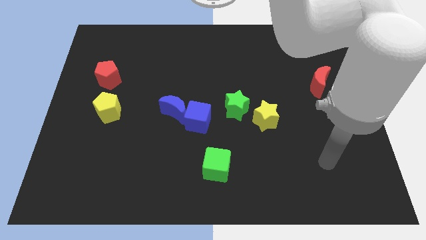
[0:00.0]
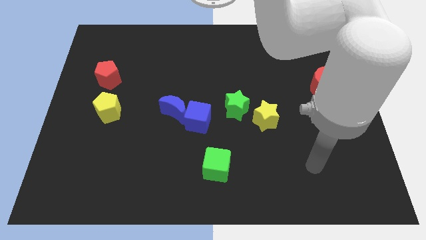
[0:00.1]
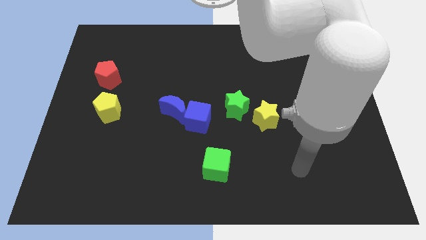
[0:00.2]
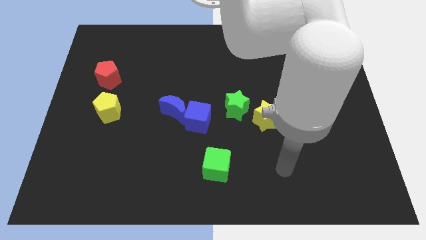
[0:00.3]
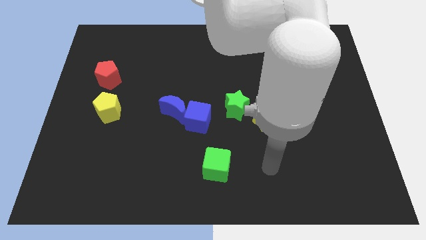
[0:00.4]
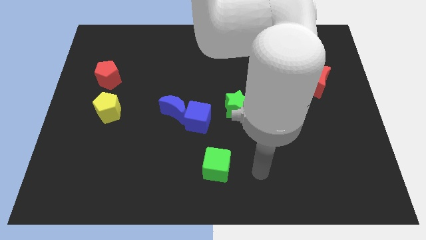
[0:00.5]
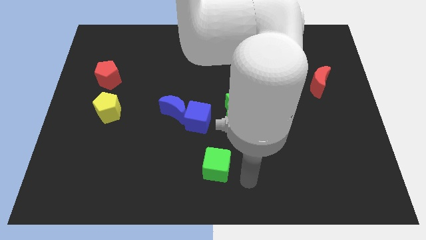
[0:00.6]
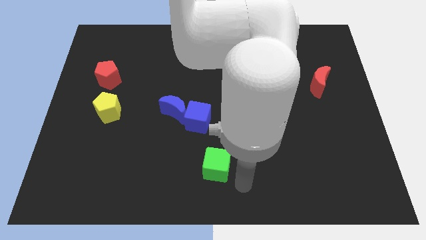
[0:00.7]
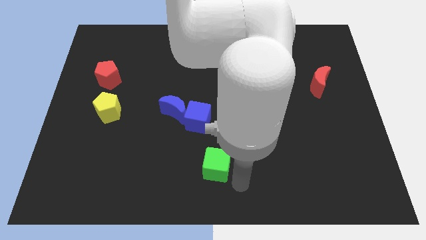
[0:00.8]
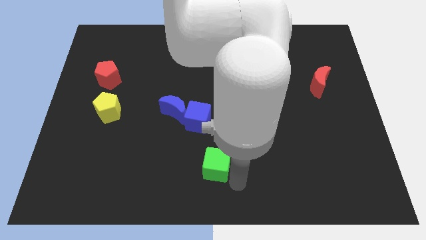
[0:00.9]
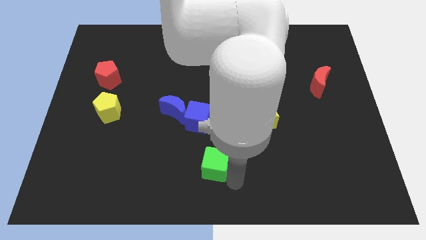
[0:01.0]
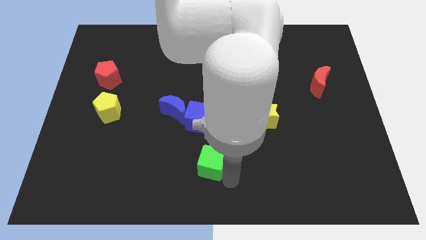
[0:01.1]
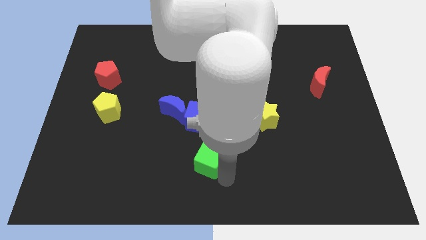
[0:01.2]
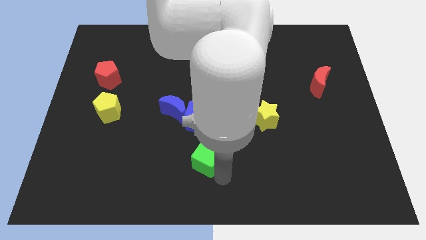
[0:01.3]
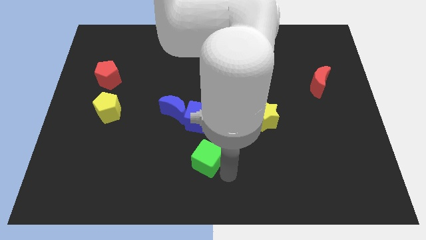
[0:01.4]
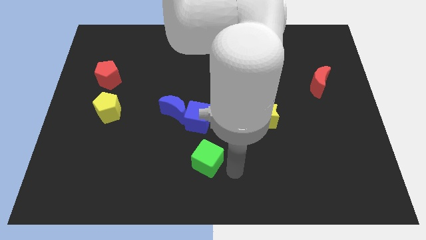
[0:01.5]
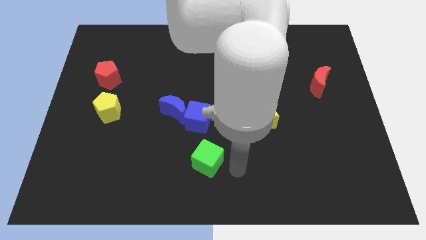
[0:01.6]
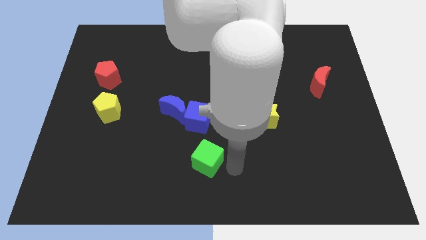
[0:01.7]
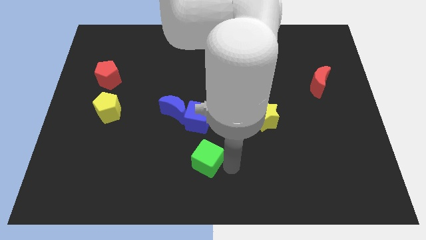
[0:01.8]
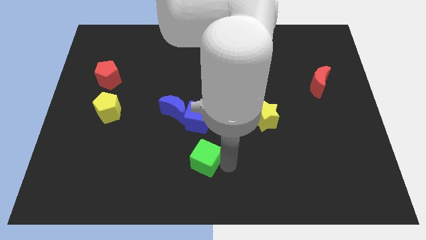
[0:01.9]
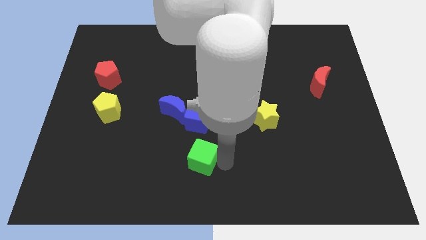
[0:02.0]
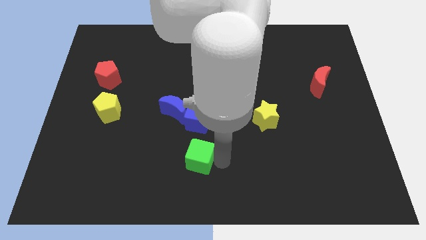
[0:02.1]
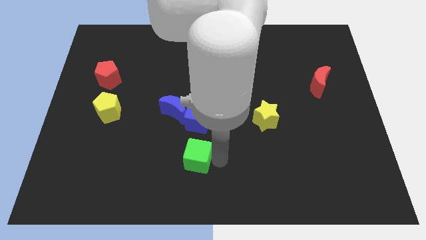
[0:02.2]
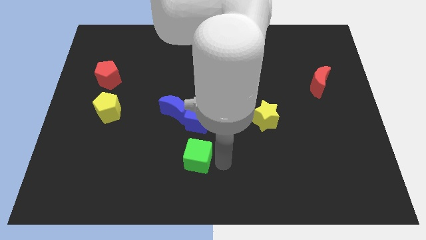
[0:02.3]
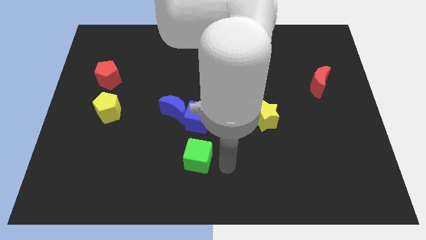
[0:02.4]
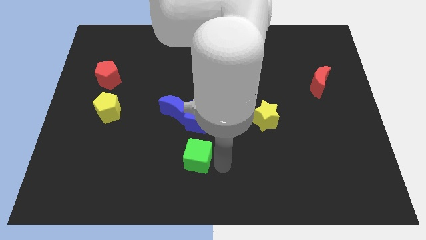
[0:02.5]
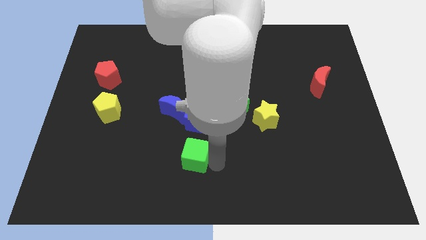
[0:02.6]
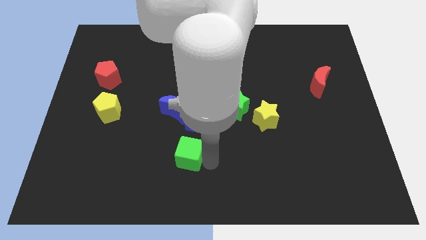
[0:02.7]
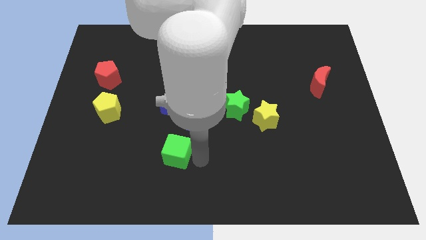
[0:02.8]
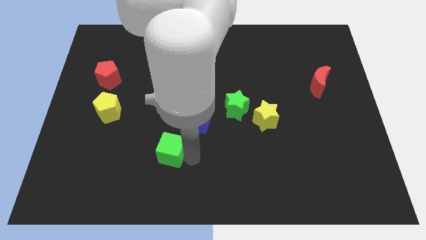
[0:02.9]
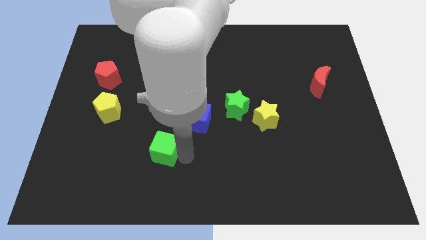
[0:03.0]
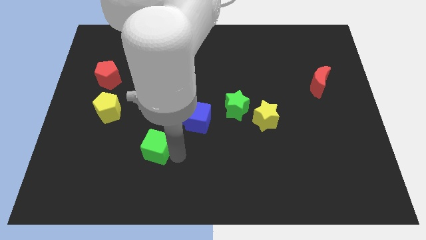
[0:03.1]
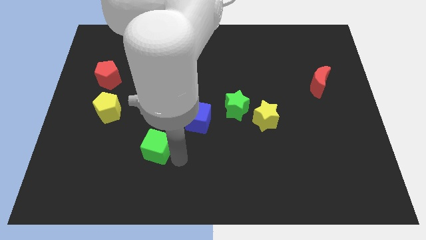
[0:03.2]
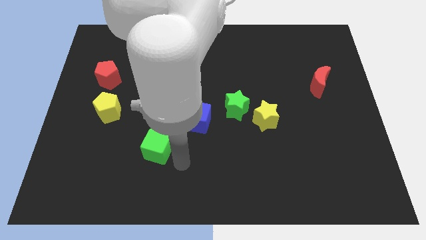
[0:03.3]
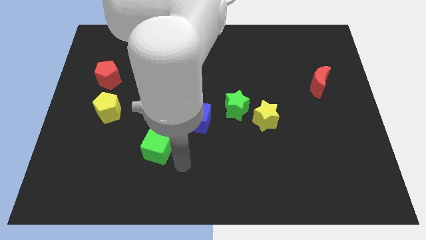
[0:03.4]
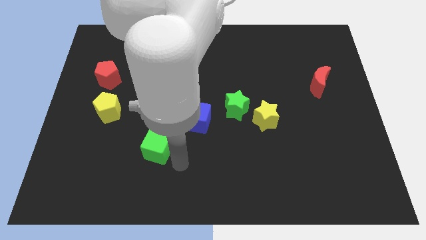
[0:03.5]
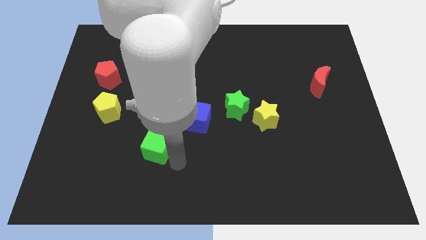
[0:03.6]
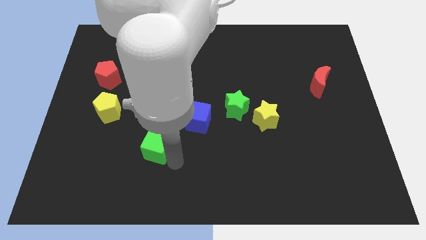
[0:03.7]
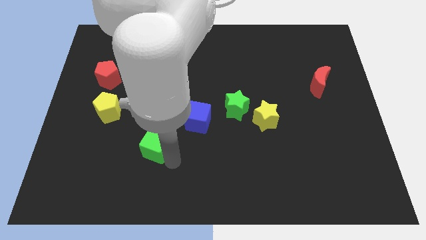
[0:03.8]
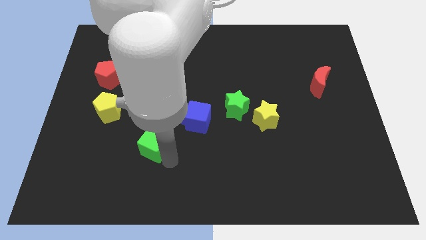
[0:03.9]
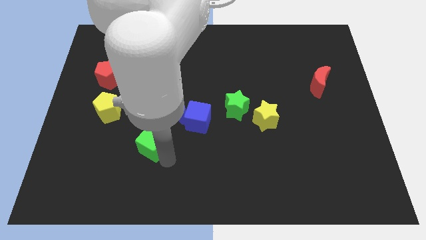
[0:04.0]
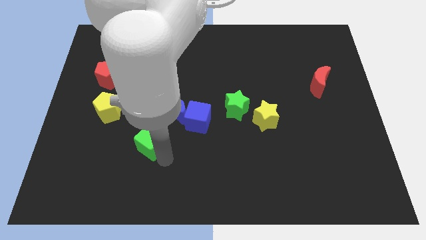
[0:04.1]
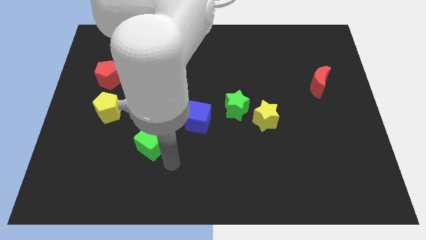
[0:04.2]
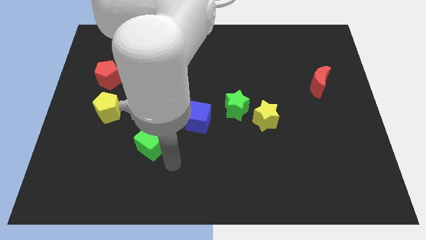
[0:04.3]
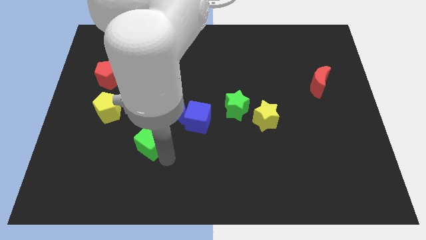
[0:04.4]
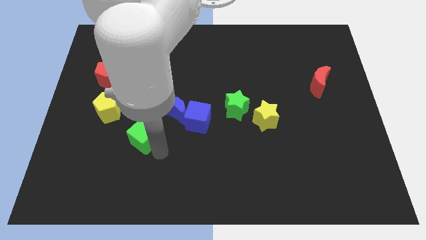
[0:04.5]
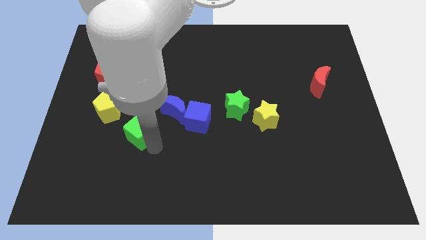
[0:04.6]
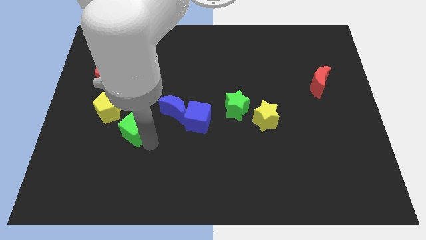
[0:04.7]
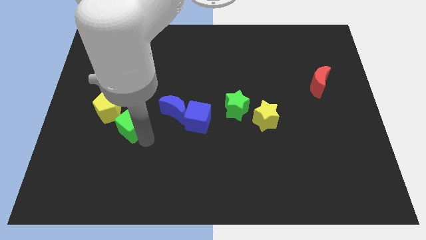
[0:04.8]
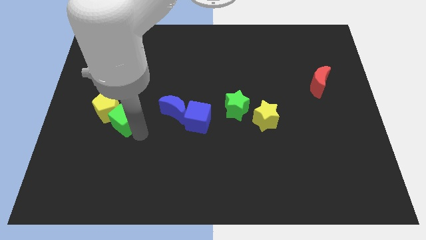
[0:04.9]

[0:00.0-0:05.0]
slide the green cube to the yellow pentagon

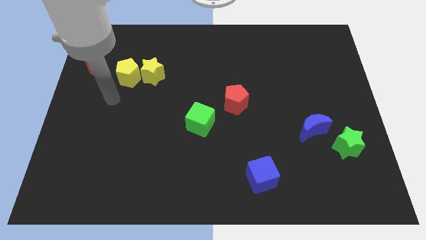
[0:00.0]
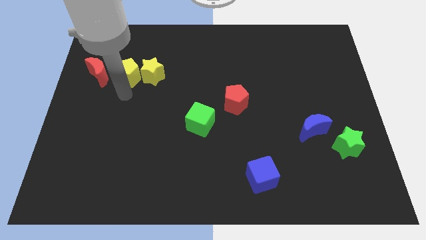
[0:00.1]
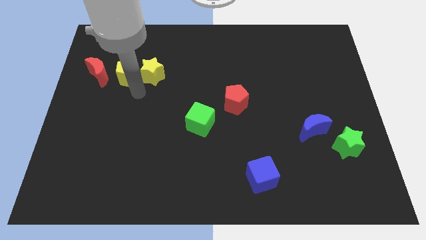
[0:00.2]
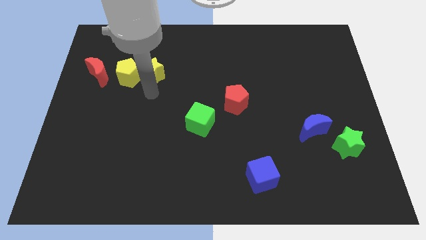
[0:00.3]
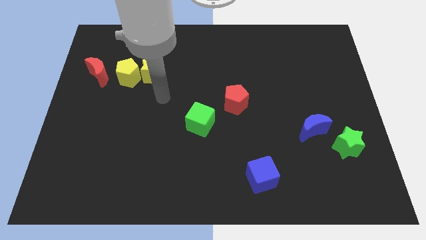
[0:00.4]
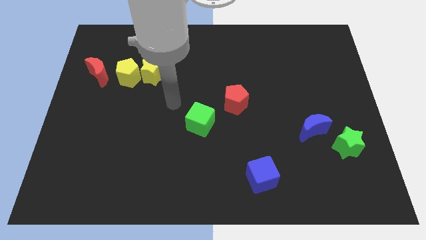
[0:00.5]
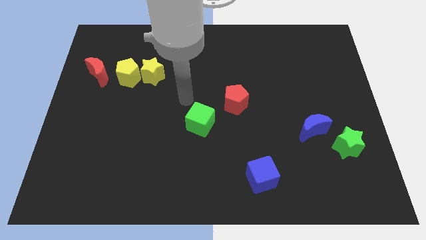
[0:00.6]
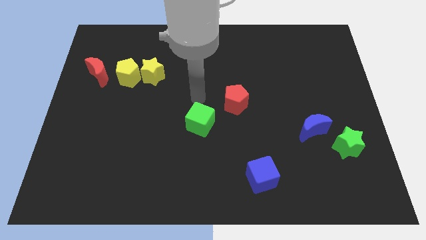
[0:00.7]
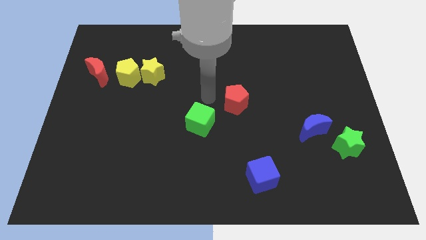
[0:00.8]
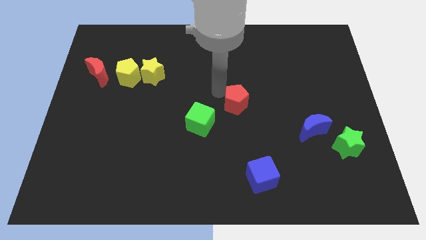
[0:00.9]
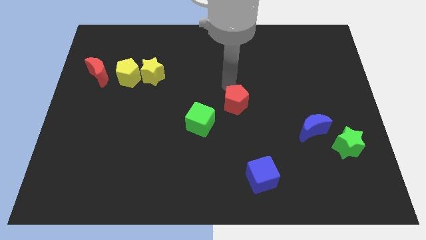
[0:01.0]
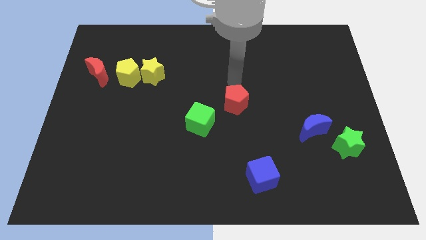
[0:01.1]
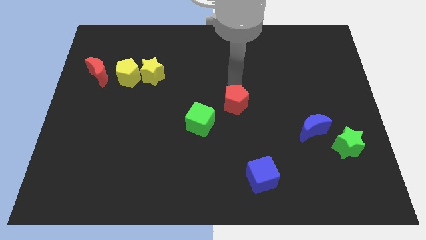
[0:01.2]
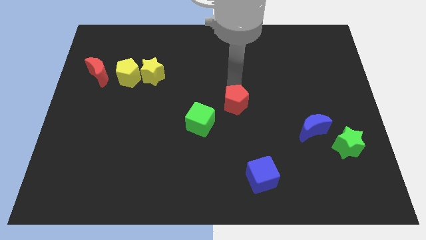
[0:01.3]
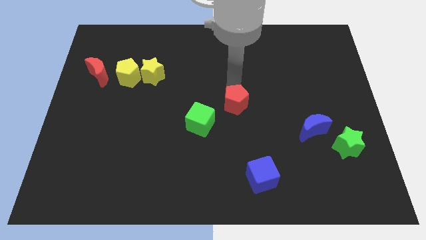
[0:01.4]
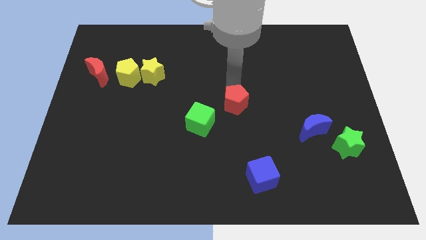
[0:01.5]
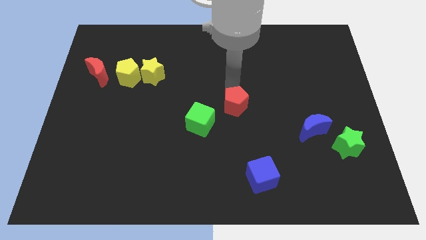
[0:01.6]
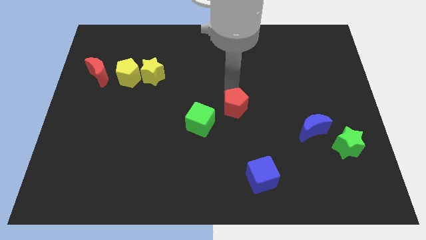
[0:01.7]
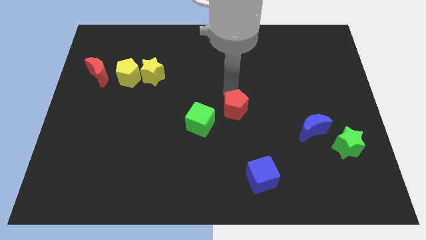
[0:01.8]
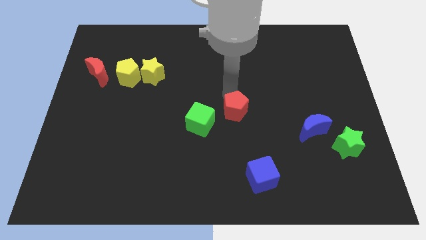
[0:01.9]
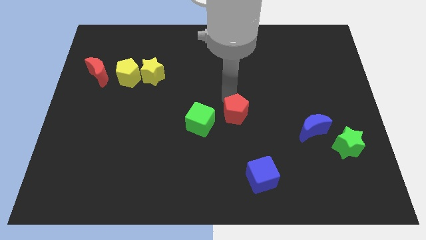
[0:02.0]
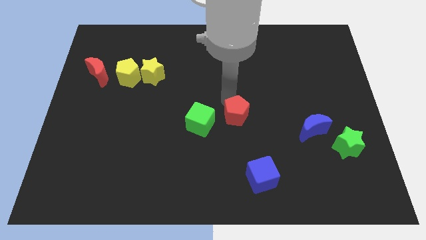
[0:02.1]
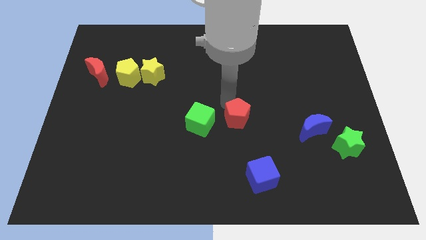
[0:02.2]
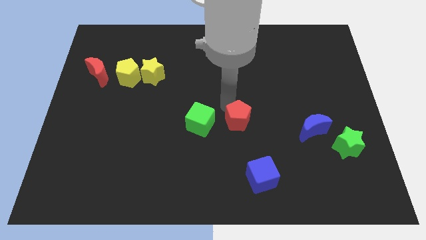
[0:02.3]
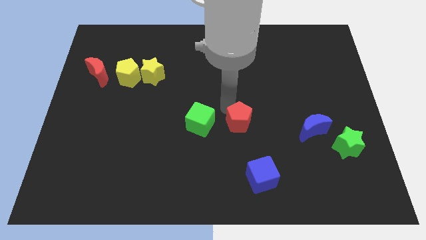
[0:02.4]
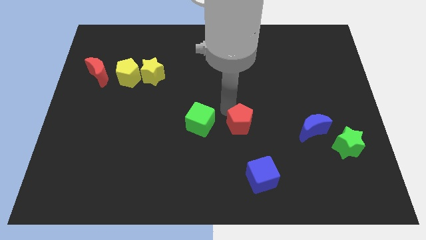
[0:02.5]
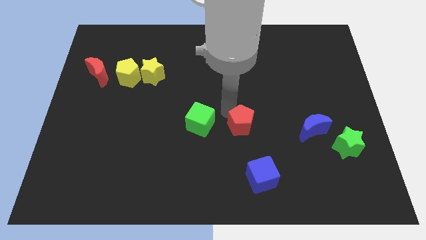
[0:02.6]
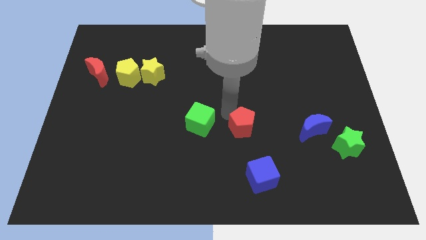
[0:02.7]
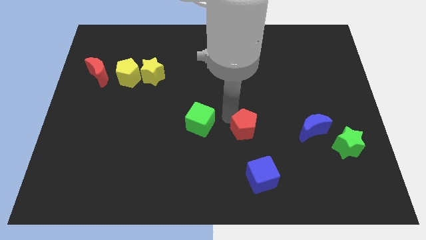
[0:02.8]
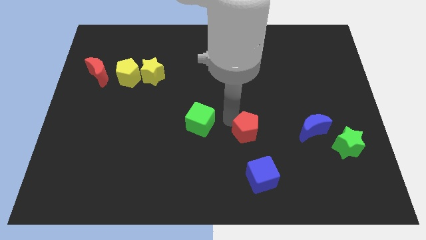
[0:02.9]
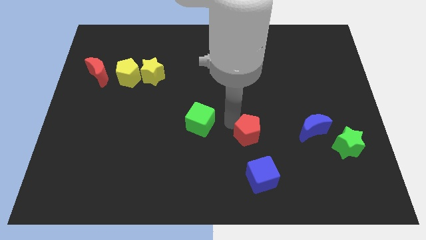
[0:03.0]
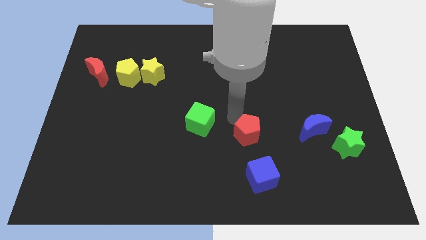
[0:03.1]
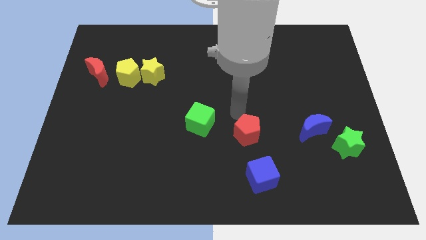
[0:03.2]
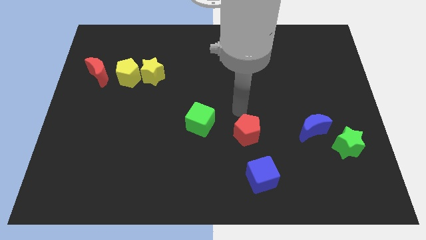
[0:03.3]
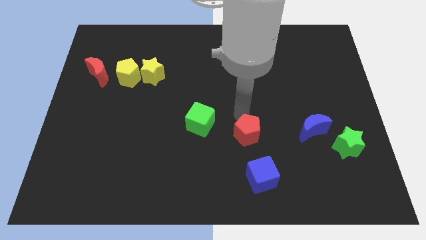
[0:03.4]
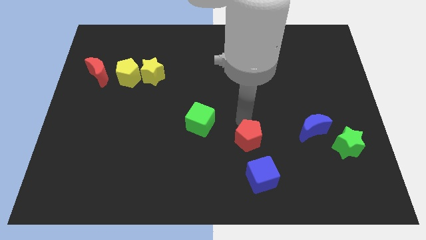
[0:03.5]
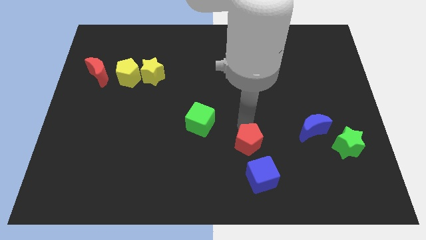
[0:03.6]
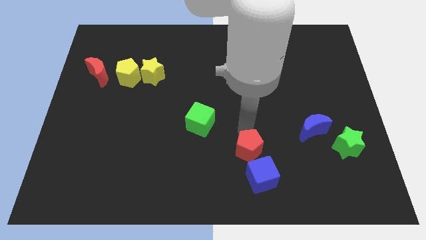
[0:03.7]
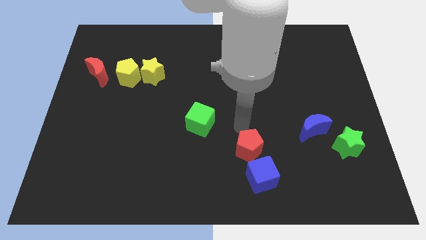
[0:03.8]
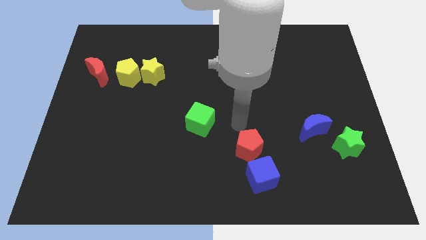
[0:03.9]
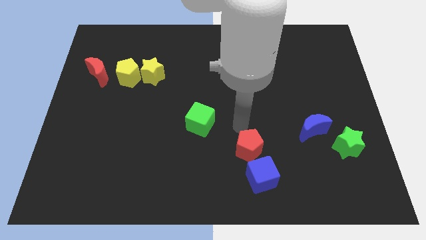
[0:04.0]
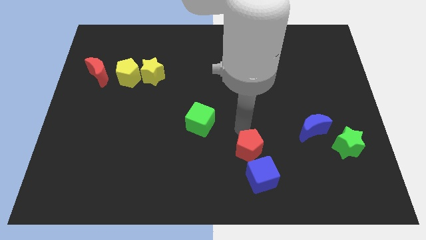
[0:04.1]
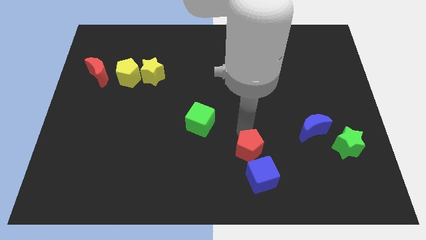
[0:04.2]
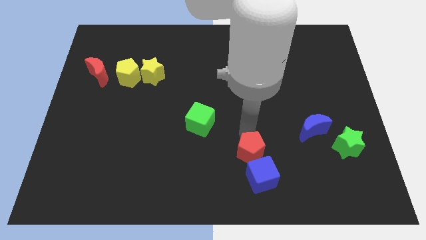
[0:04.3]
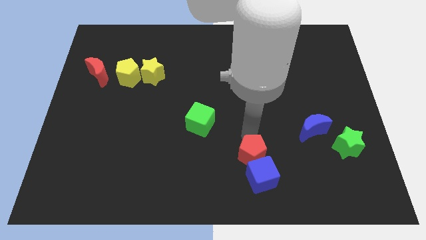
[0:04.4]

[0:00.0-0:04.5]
move the red pentagon to the blue cube
